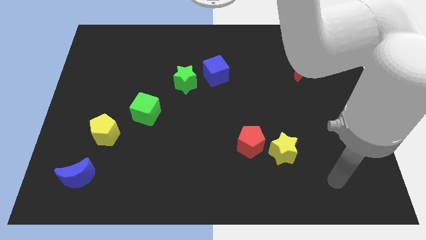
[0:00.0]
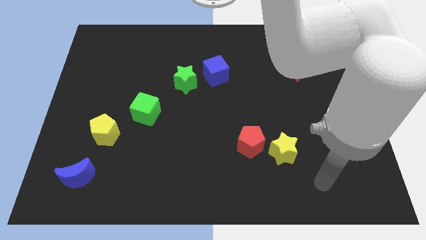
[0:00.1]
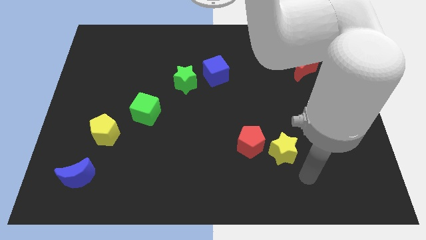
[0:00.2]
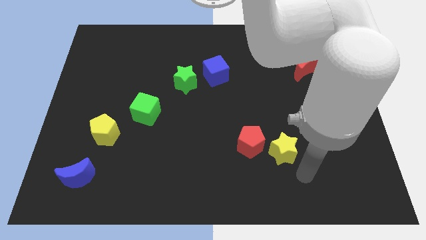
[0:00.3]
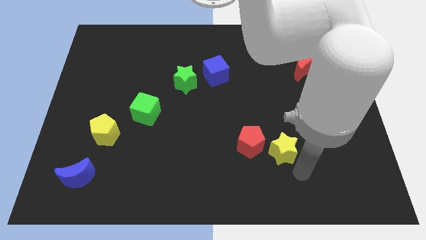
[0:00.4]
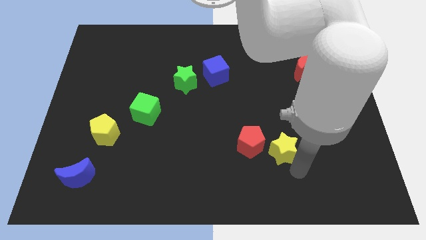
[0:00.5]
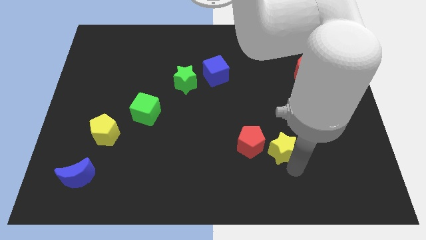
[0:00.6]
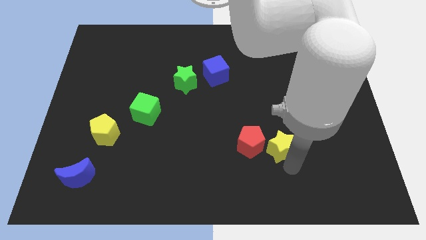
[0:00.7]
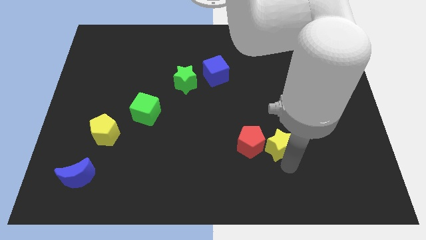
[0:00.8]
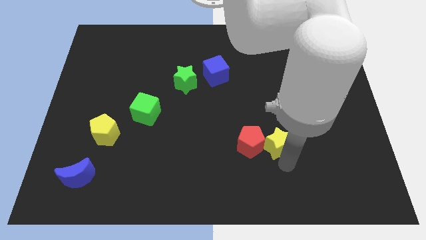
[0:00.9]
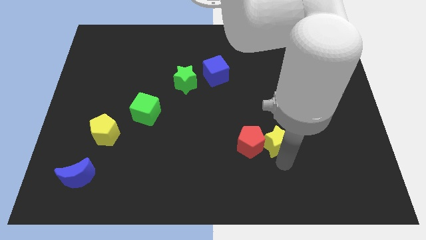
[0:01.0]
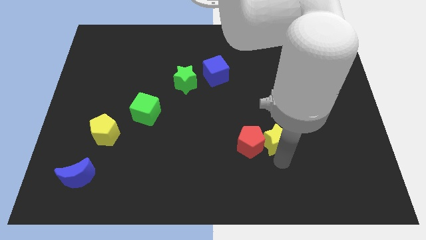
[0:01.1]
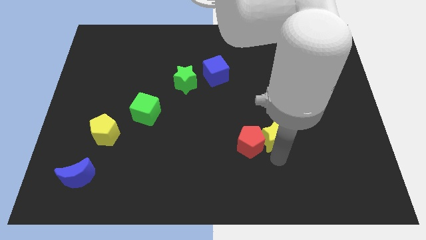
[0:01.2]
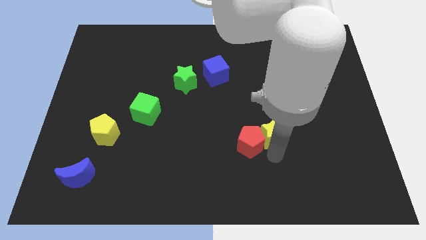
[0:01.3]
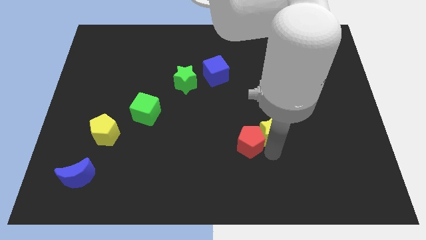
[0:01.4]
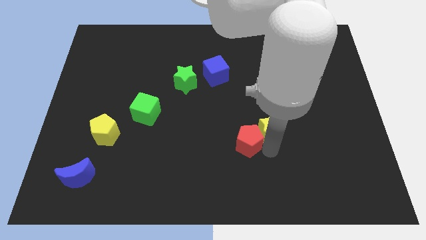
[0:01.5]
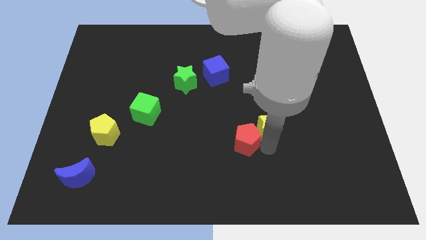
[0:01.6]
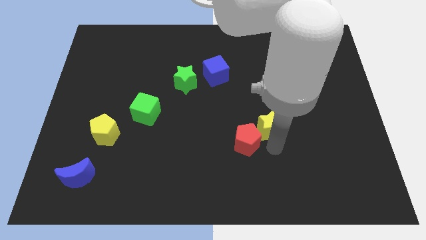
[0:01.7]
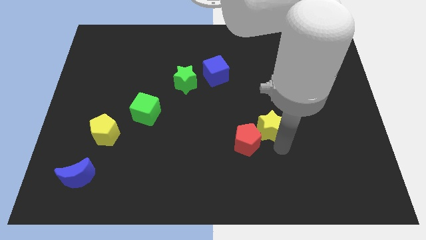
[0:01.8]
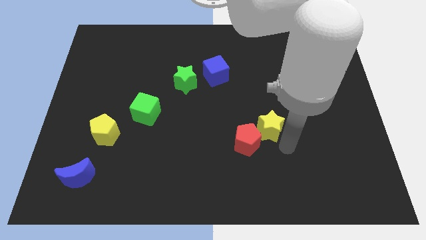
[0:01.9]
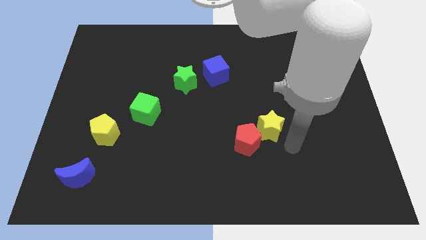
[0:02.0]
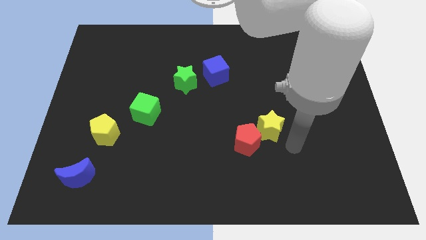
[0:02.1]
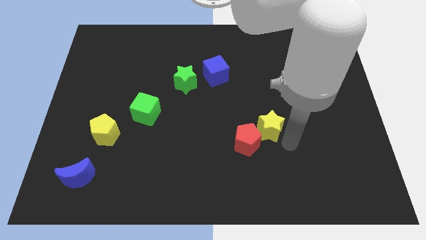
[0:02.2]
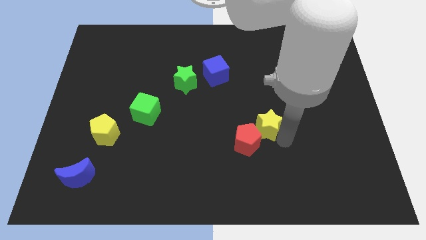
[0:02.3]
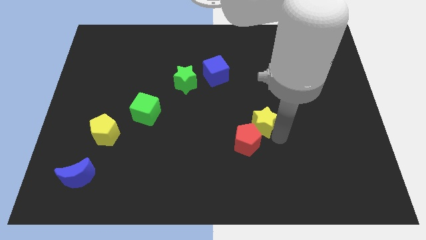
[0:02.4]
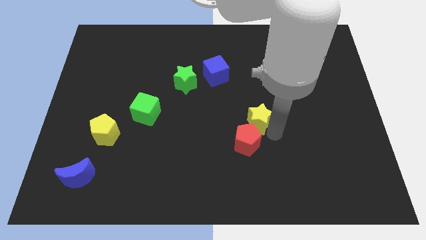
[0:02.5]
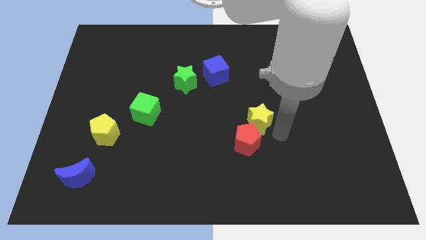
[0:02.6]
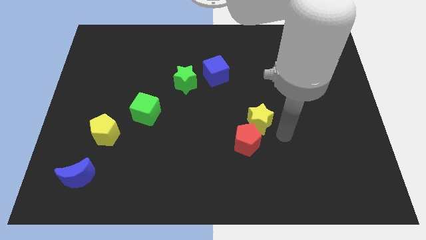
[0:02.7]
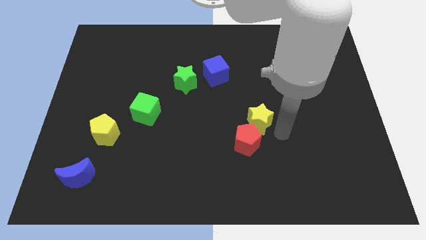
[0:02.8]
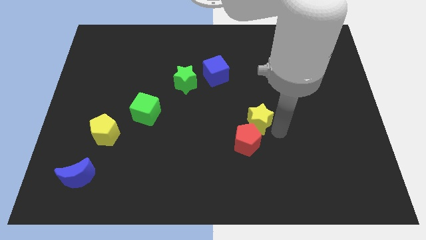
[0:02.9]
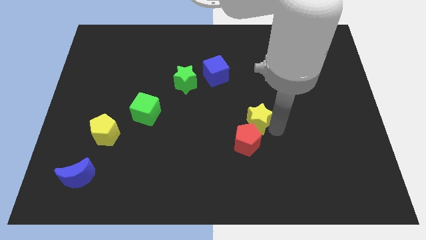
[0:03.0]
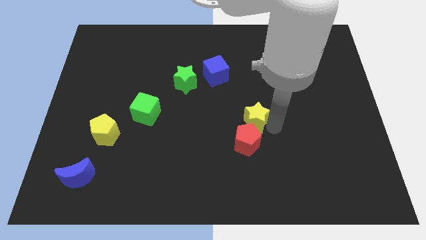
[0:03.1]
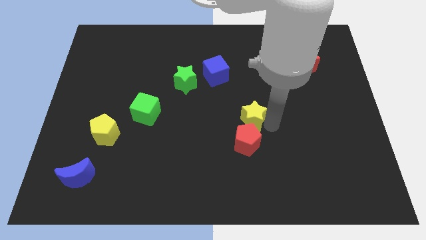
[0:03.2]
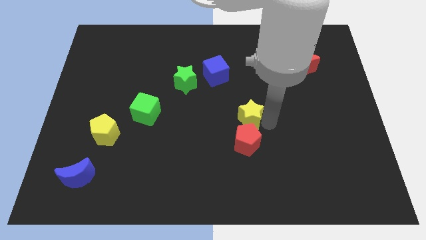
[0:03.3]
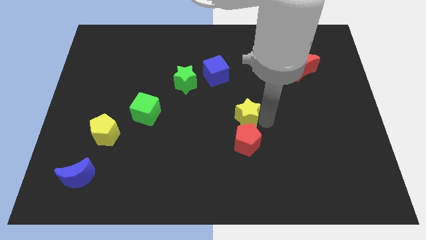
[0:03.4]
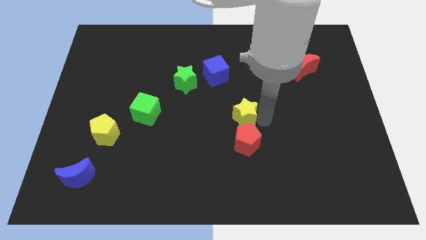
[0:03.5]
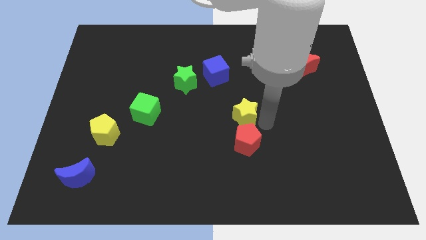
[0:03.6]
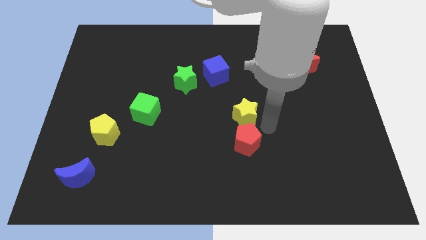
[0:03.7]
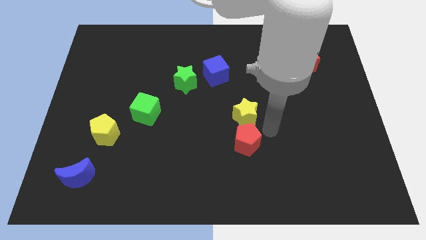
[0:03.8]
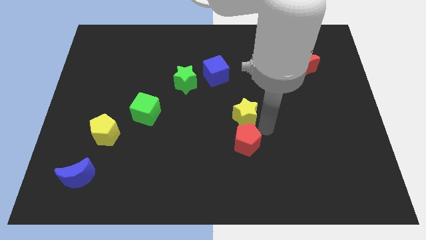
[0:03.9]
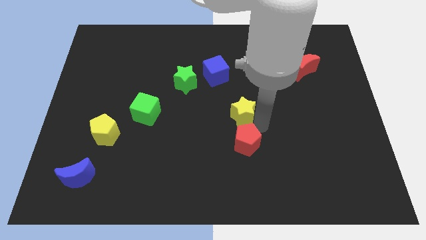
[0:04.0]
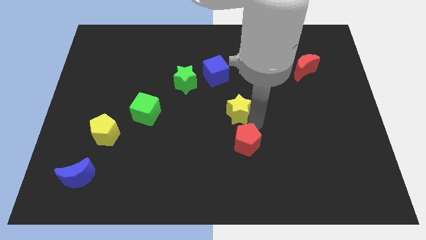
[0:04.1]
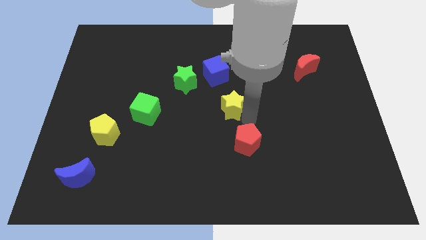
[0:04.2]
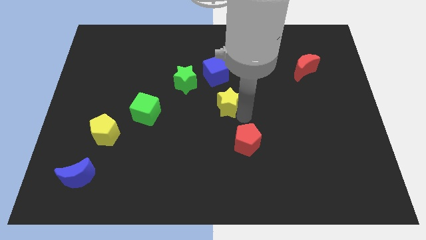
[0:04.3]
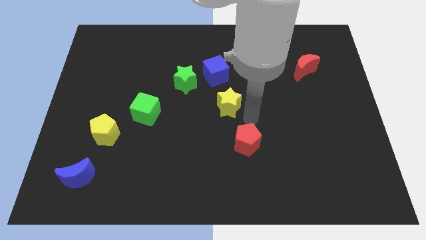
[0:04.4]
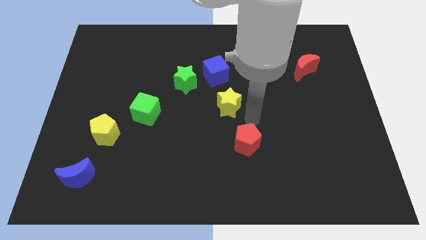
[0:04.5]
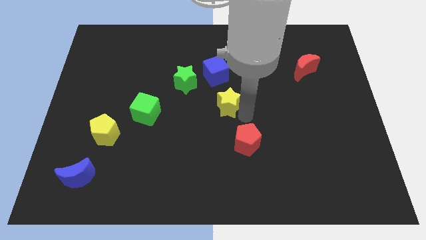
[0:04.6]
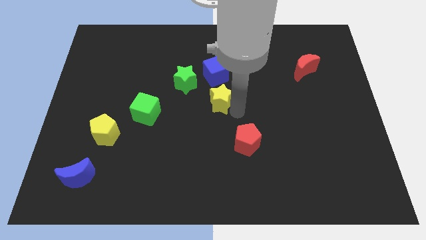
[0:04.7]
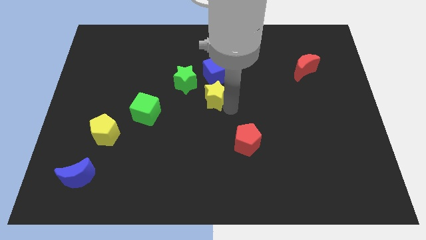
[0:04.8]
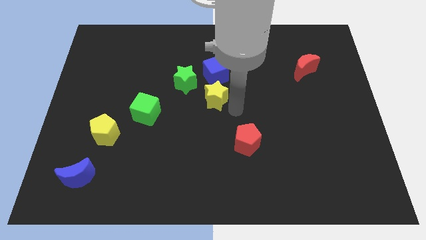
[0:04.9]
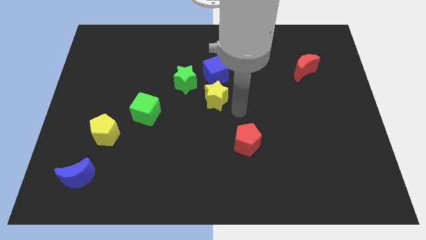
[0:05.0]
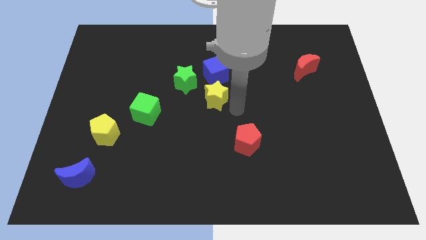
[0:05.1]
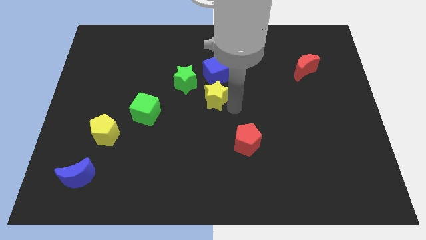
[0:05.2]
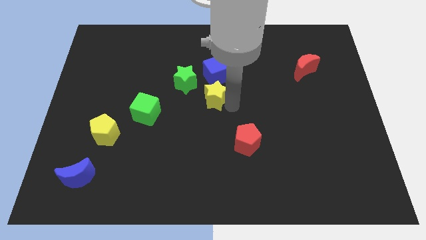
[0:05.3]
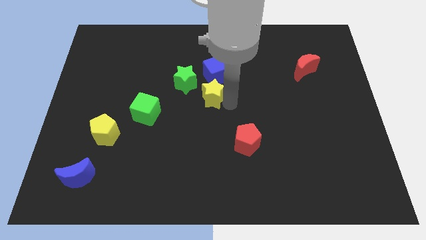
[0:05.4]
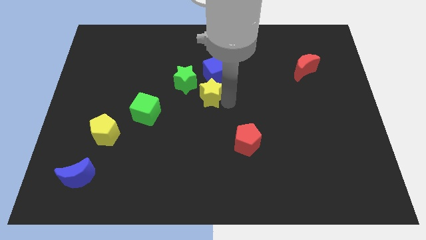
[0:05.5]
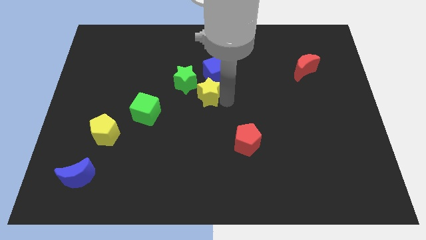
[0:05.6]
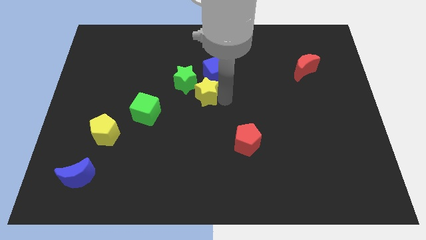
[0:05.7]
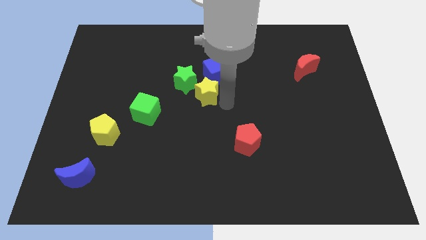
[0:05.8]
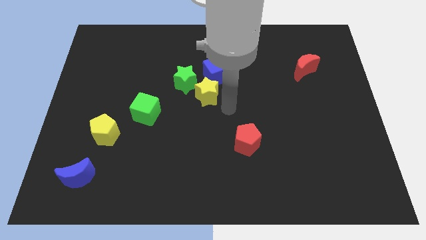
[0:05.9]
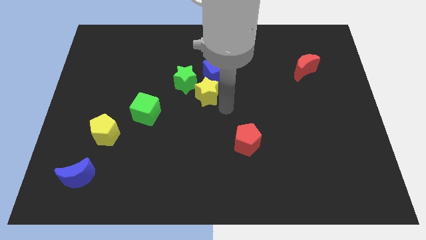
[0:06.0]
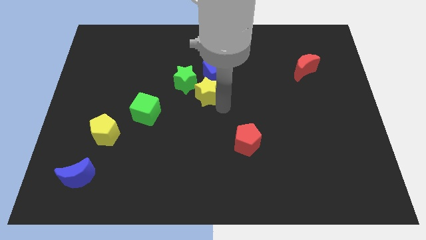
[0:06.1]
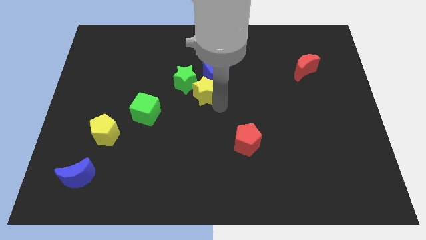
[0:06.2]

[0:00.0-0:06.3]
move the yellow star close to the green star

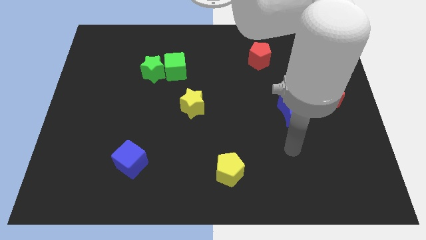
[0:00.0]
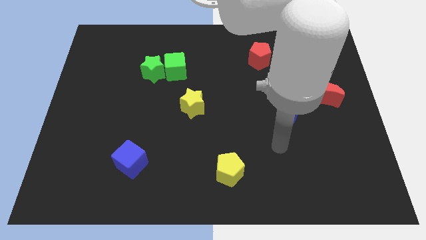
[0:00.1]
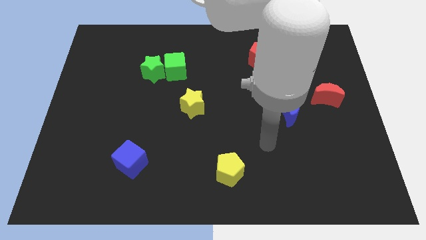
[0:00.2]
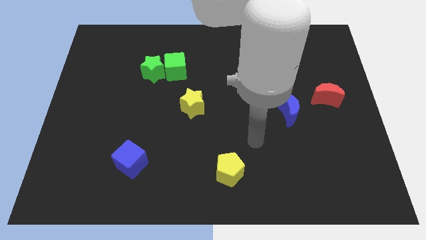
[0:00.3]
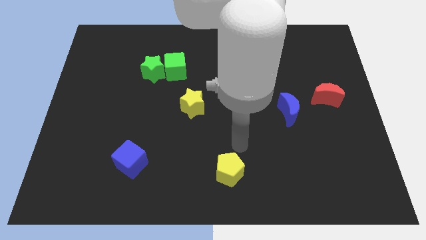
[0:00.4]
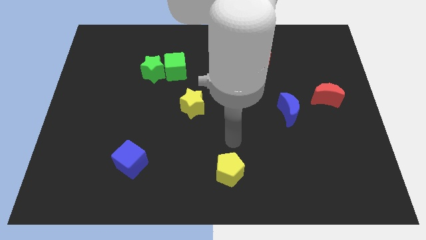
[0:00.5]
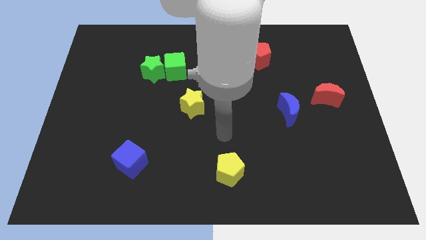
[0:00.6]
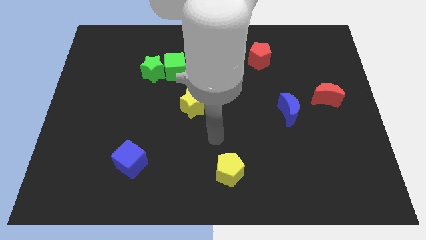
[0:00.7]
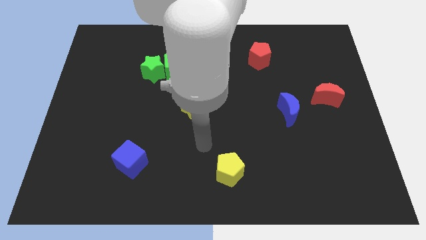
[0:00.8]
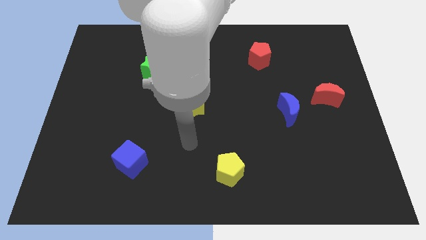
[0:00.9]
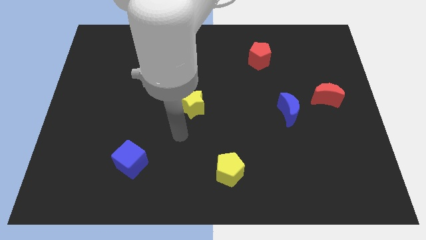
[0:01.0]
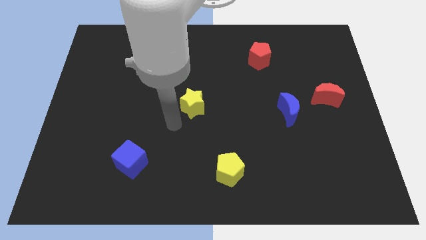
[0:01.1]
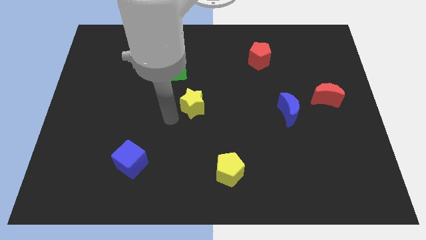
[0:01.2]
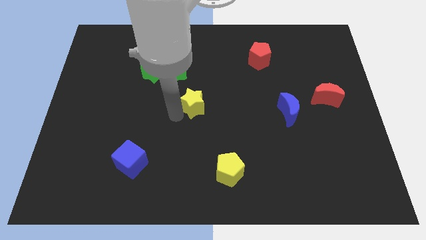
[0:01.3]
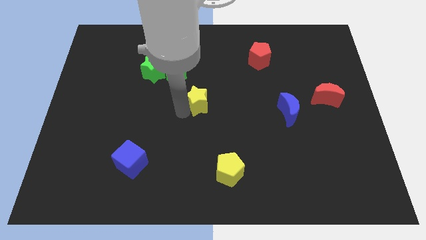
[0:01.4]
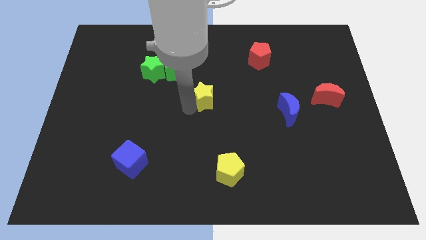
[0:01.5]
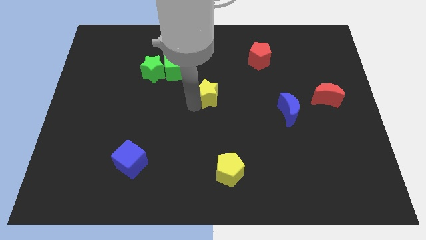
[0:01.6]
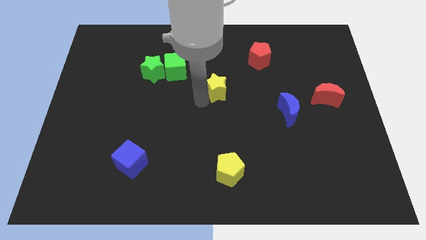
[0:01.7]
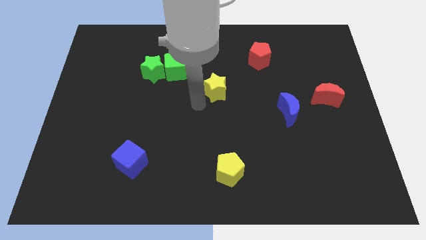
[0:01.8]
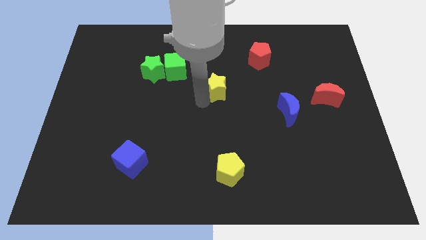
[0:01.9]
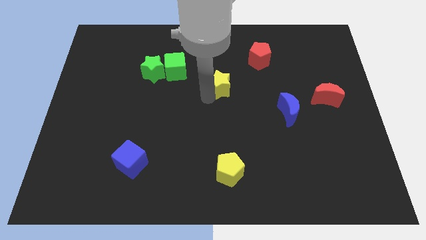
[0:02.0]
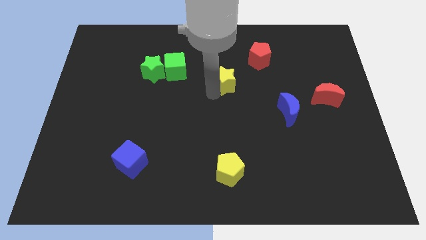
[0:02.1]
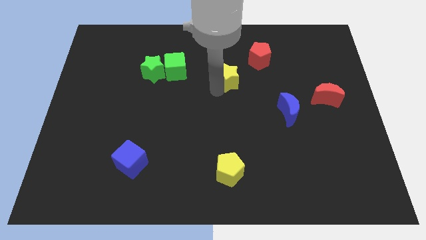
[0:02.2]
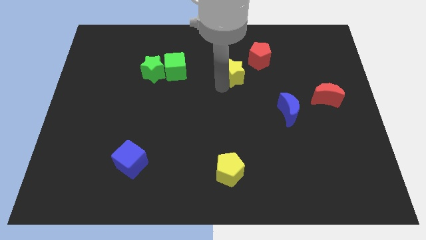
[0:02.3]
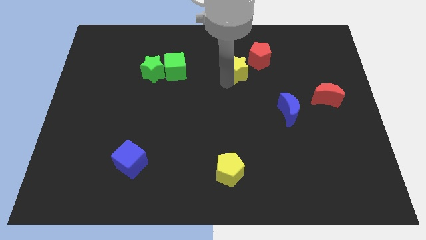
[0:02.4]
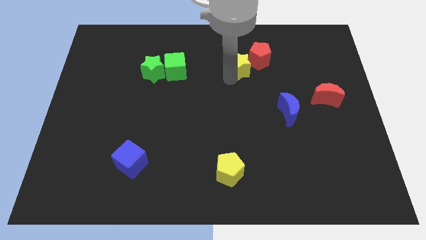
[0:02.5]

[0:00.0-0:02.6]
move the yellow star to the red pentagon
